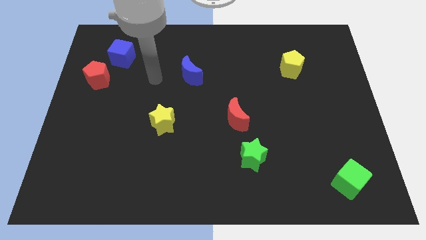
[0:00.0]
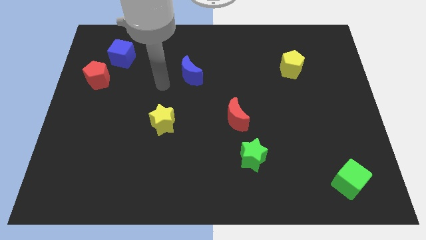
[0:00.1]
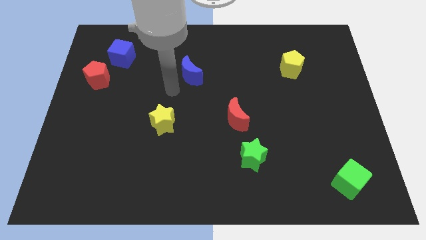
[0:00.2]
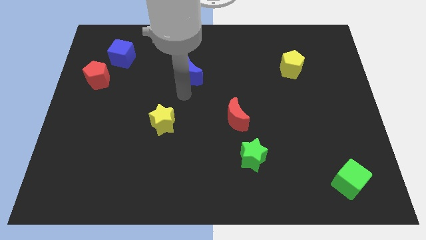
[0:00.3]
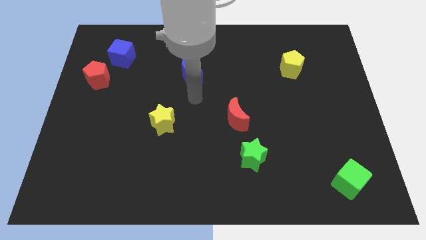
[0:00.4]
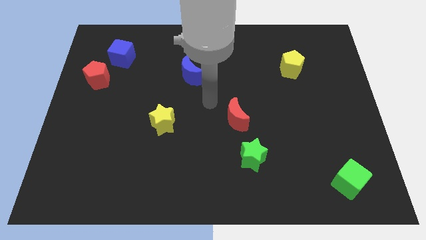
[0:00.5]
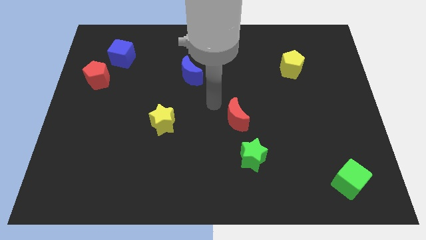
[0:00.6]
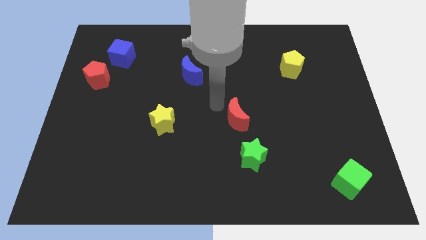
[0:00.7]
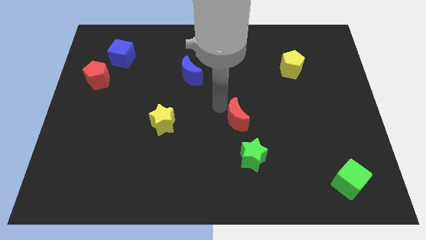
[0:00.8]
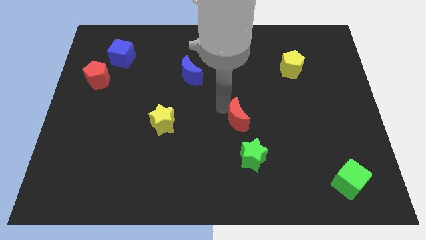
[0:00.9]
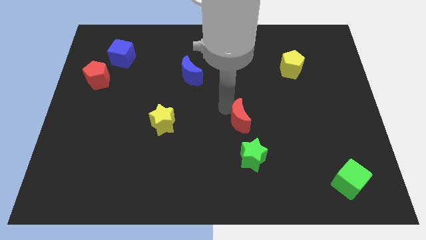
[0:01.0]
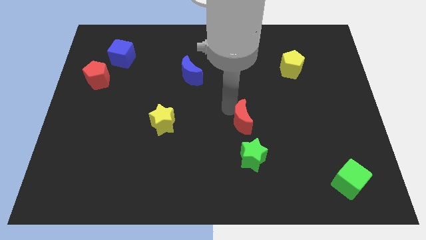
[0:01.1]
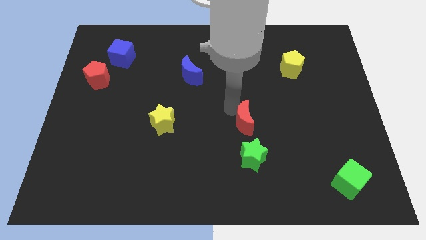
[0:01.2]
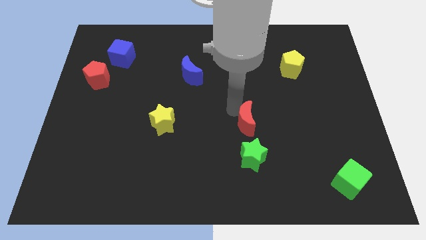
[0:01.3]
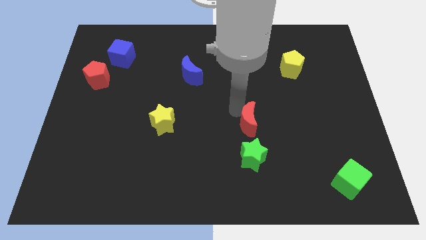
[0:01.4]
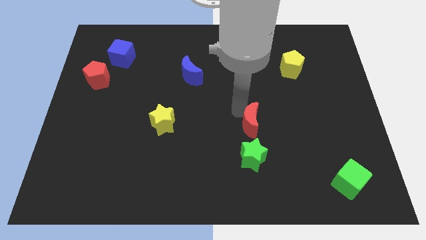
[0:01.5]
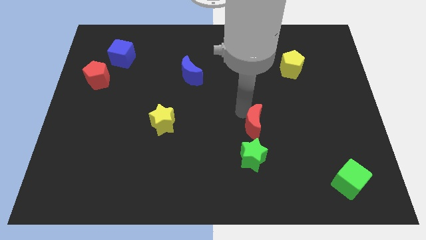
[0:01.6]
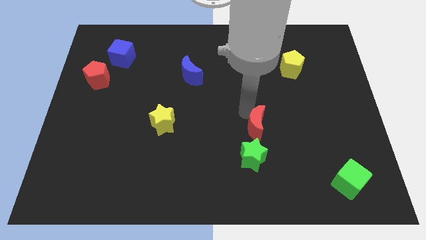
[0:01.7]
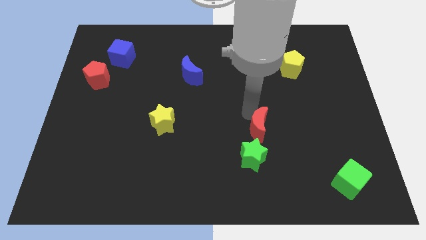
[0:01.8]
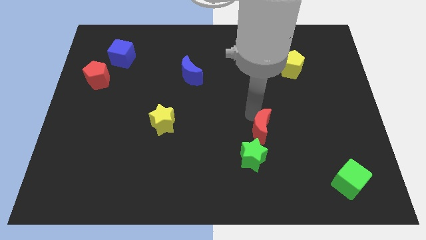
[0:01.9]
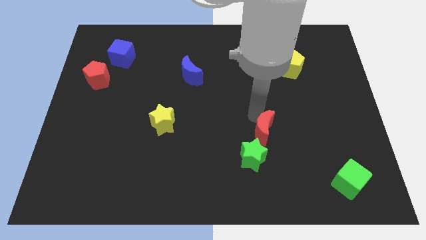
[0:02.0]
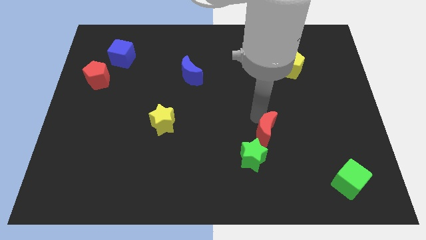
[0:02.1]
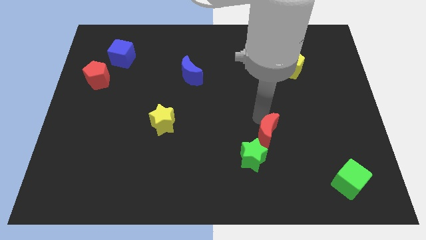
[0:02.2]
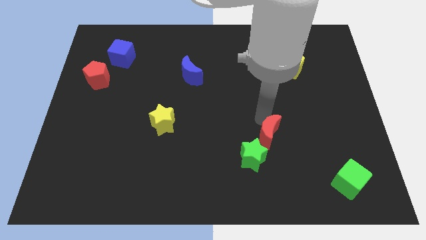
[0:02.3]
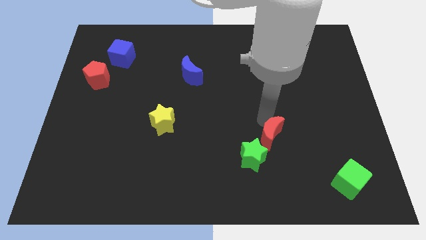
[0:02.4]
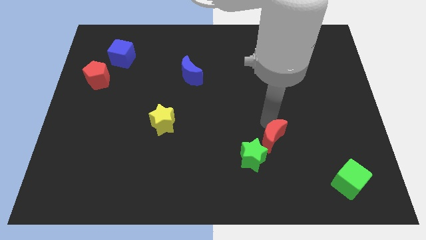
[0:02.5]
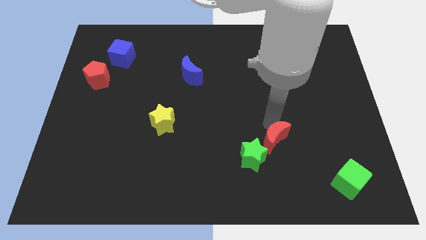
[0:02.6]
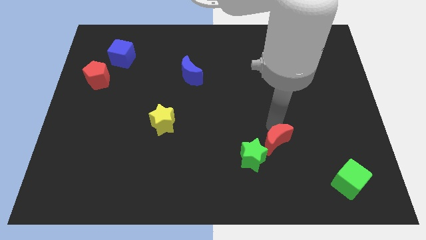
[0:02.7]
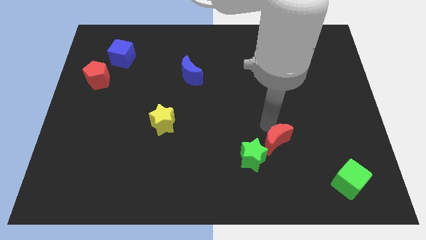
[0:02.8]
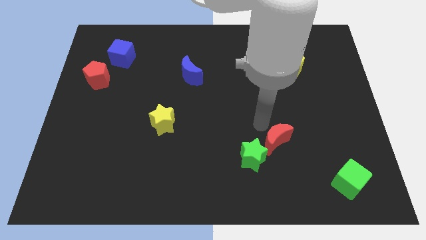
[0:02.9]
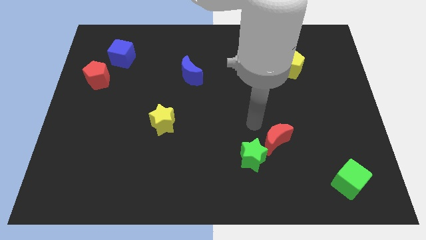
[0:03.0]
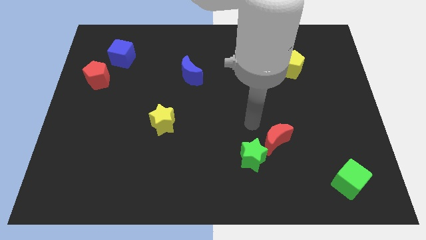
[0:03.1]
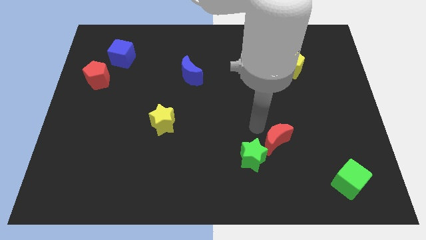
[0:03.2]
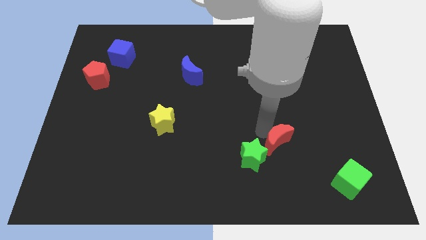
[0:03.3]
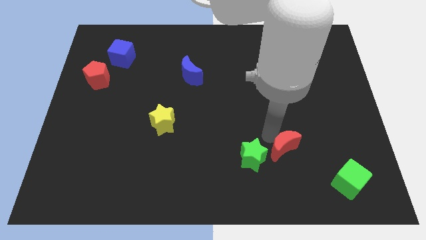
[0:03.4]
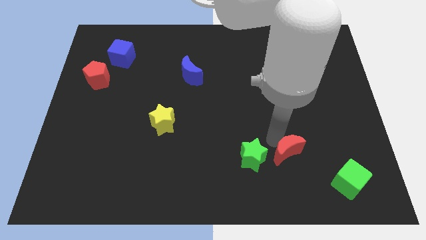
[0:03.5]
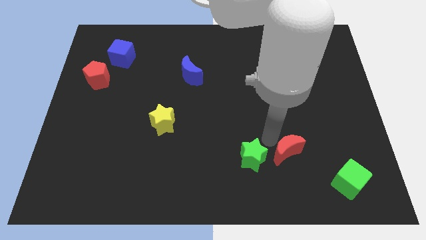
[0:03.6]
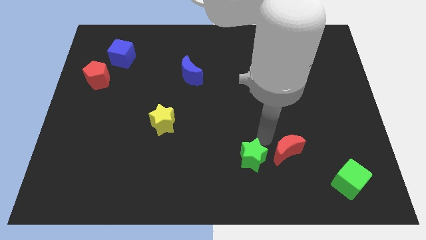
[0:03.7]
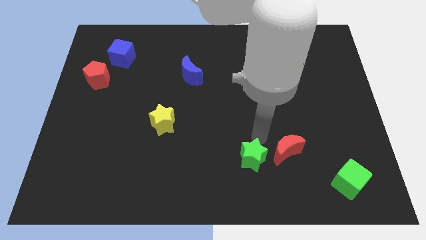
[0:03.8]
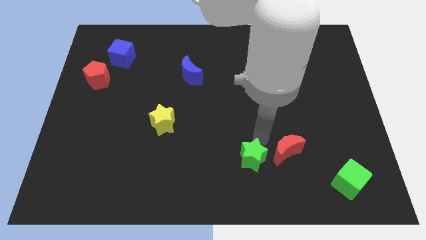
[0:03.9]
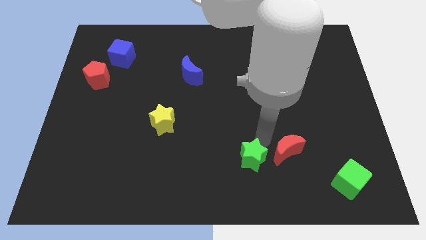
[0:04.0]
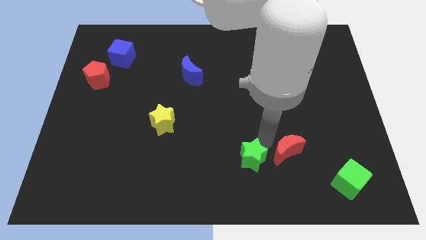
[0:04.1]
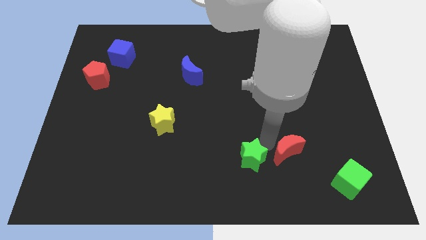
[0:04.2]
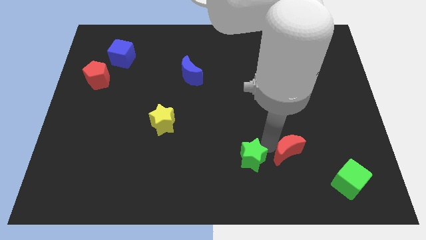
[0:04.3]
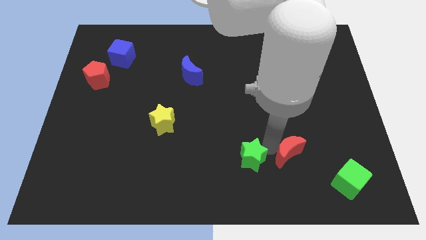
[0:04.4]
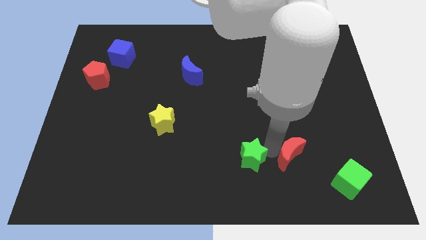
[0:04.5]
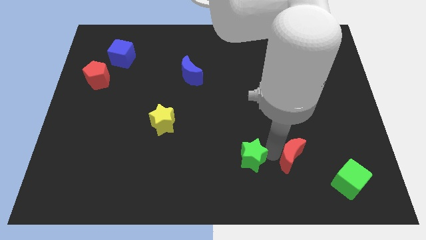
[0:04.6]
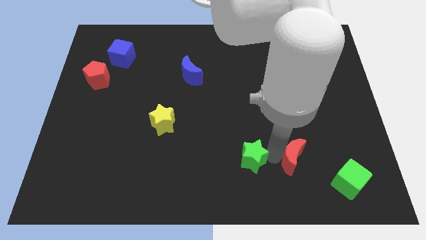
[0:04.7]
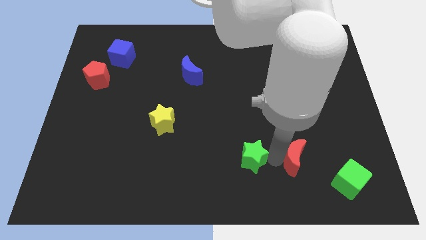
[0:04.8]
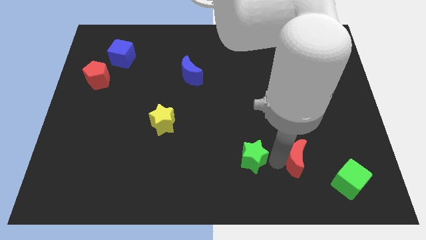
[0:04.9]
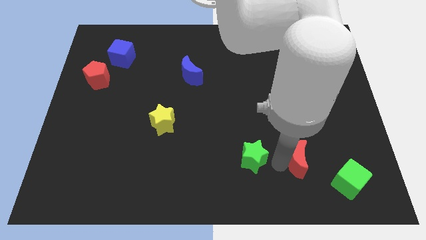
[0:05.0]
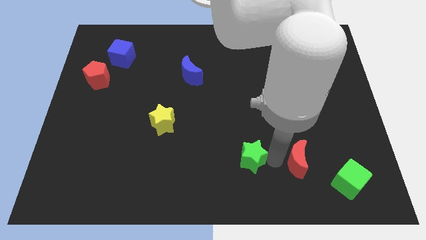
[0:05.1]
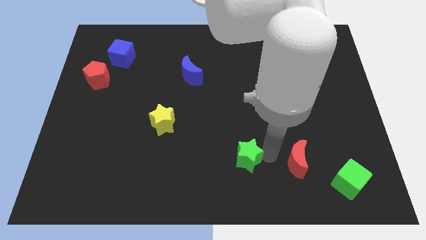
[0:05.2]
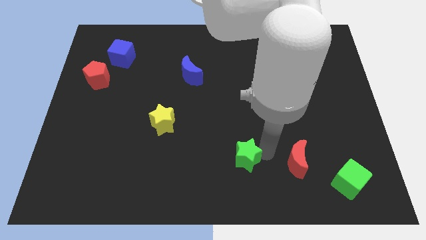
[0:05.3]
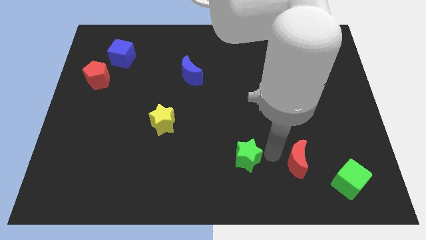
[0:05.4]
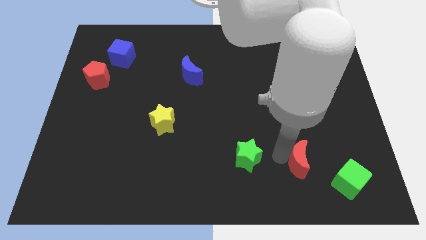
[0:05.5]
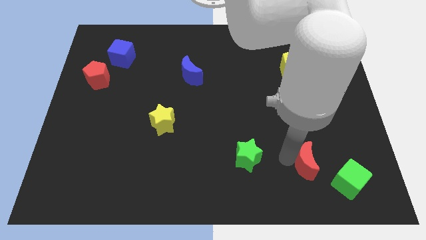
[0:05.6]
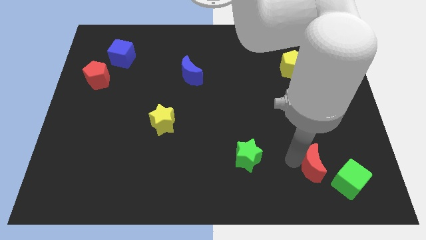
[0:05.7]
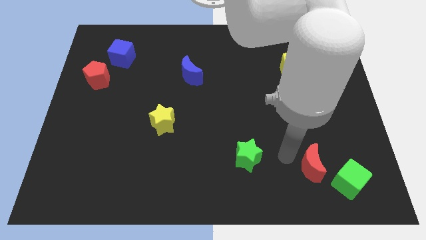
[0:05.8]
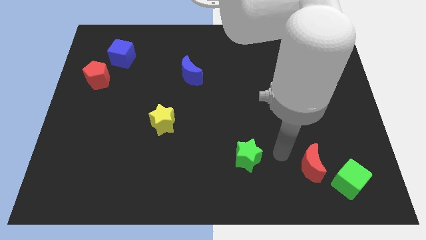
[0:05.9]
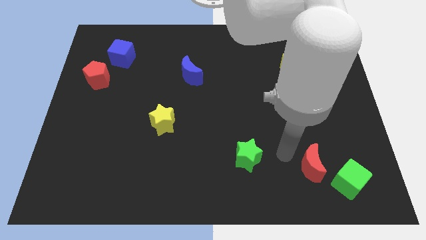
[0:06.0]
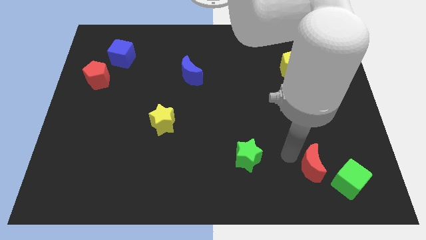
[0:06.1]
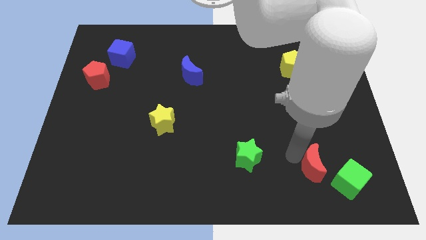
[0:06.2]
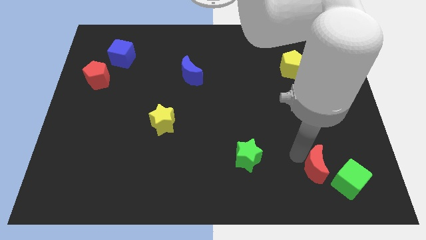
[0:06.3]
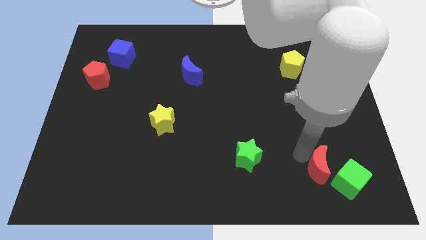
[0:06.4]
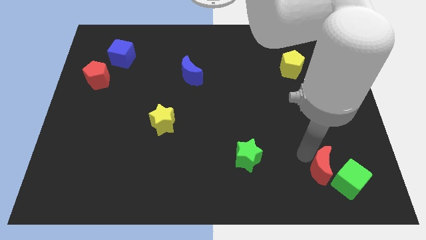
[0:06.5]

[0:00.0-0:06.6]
push the red moon next to the green cube

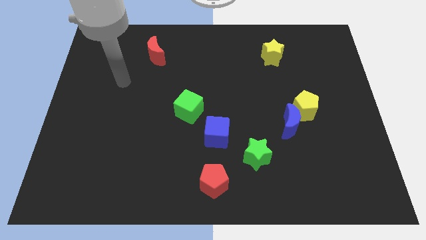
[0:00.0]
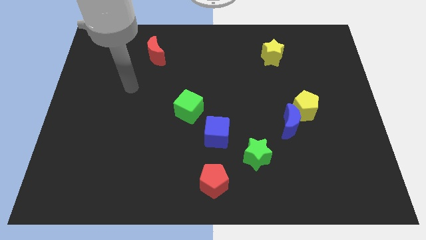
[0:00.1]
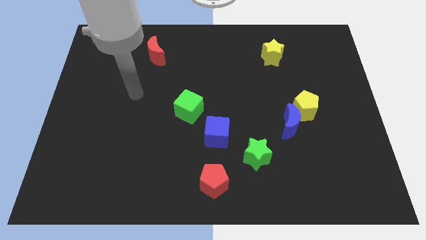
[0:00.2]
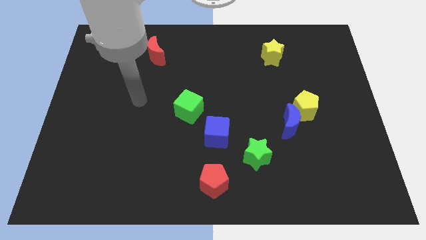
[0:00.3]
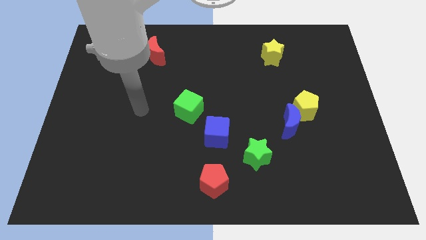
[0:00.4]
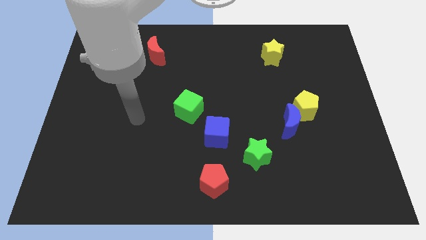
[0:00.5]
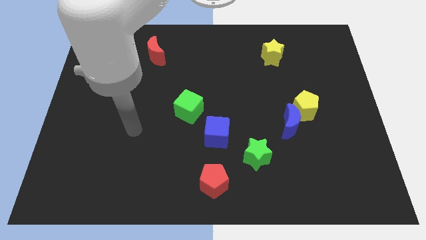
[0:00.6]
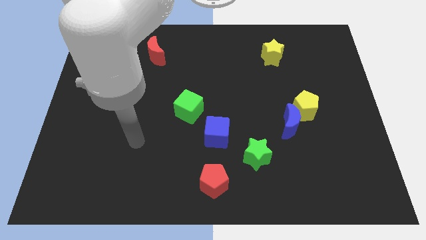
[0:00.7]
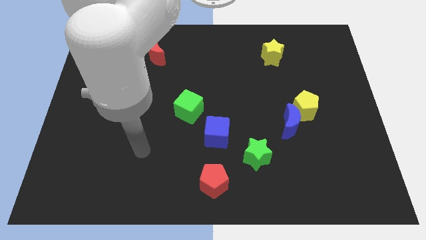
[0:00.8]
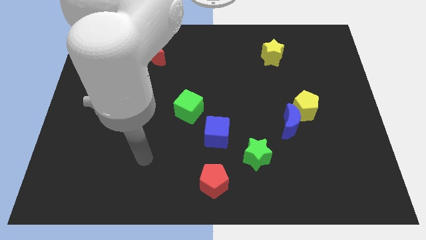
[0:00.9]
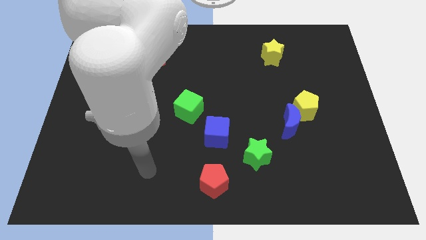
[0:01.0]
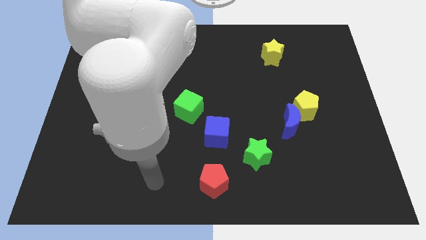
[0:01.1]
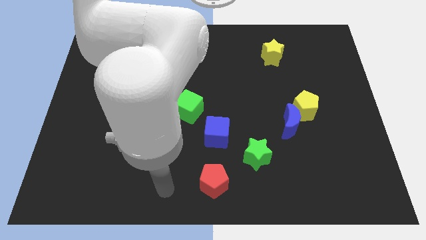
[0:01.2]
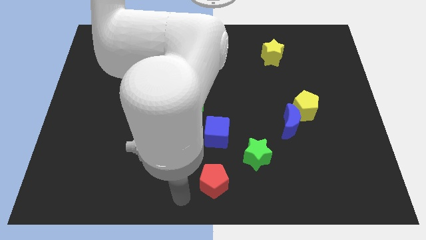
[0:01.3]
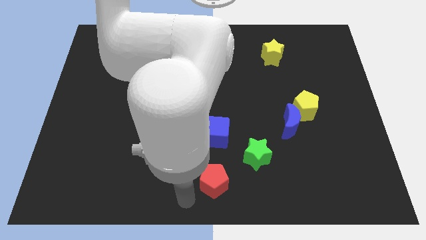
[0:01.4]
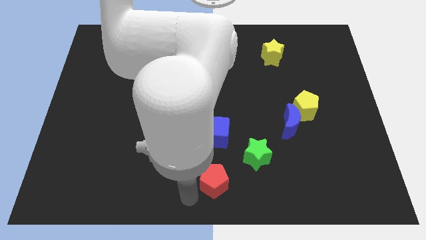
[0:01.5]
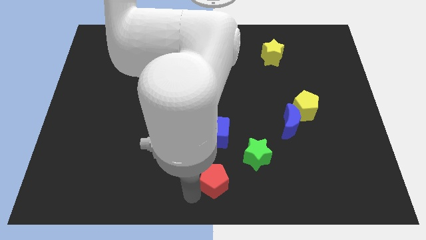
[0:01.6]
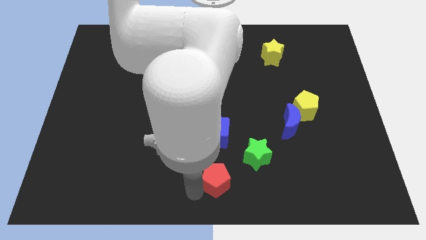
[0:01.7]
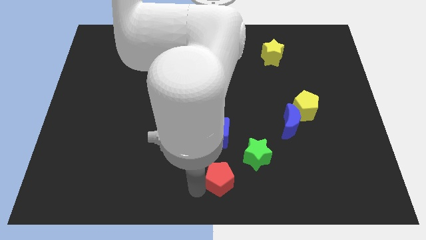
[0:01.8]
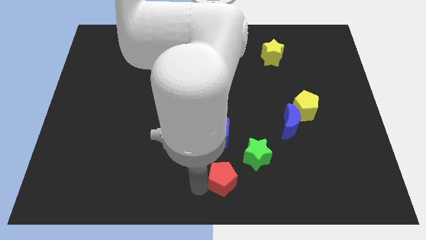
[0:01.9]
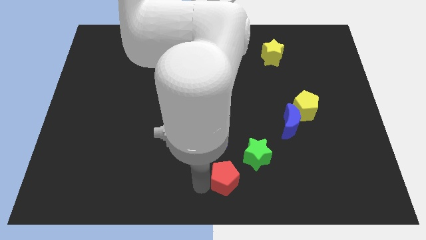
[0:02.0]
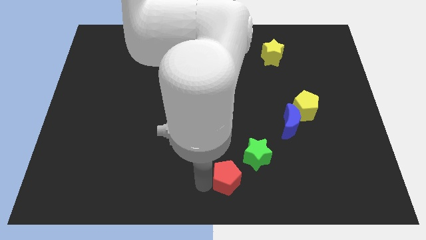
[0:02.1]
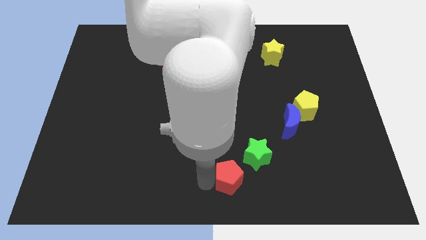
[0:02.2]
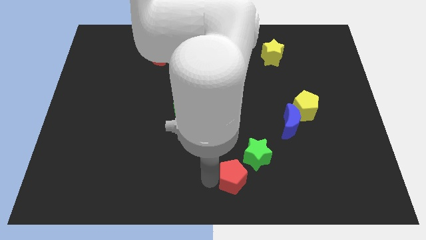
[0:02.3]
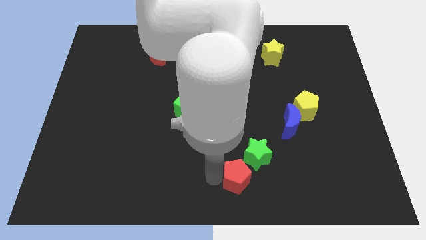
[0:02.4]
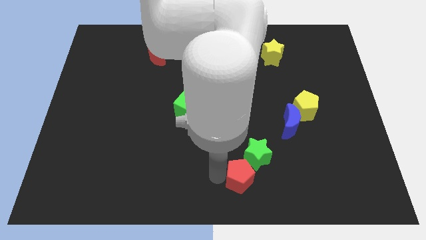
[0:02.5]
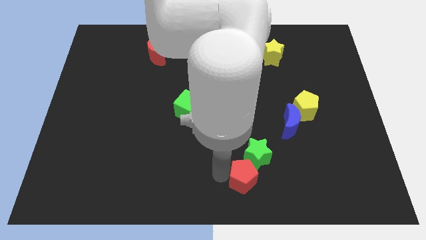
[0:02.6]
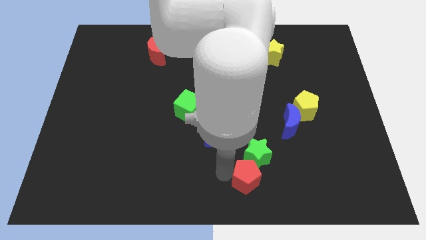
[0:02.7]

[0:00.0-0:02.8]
slide the red pentagon towards the green star
